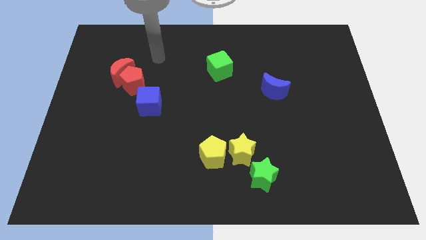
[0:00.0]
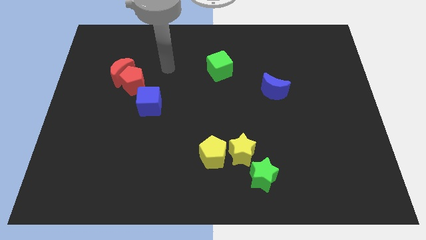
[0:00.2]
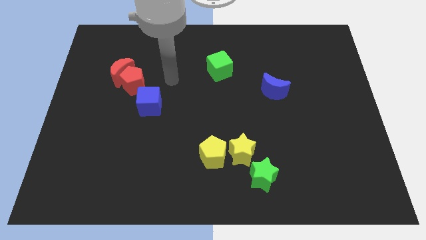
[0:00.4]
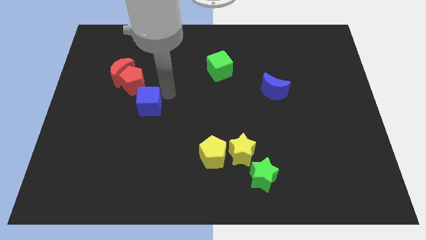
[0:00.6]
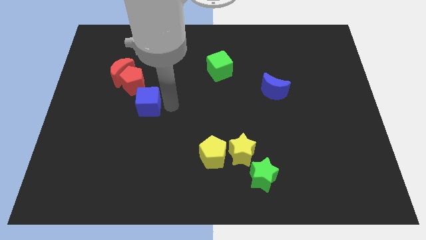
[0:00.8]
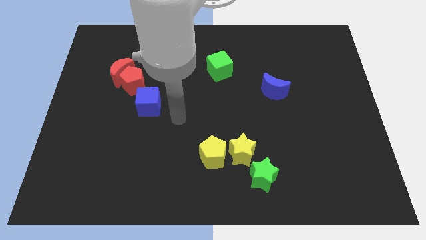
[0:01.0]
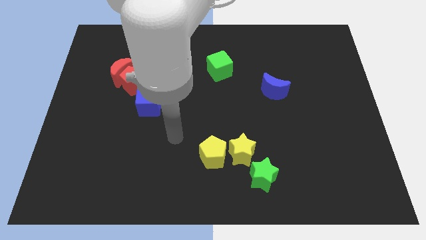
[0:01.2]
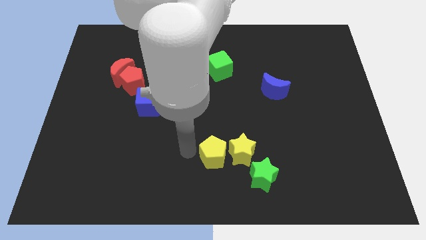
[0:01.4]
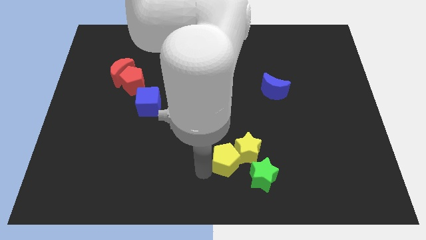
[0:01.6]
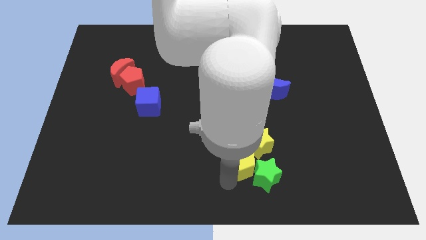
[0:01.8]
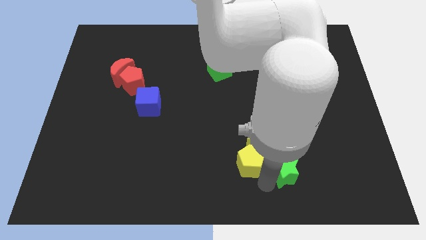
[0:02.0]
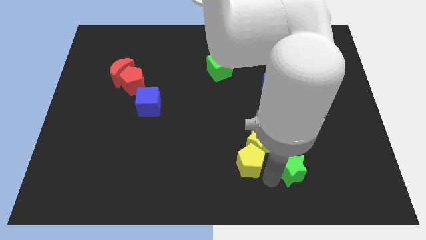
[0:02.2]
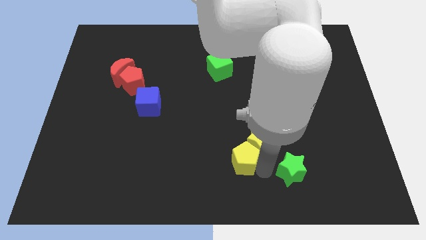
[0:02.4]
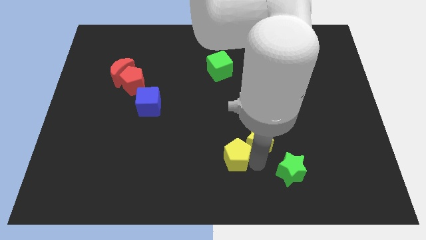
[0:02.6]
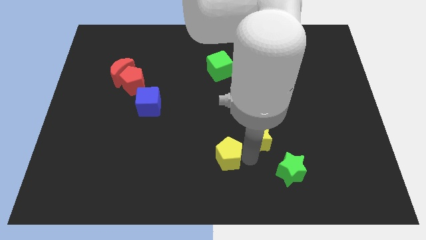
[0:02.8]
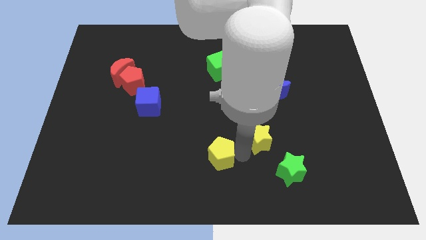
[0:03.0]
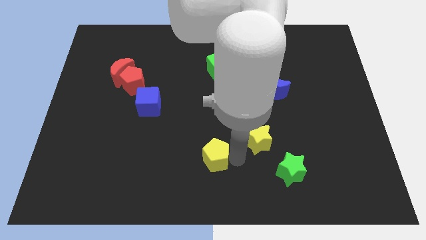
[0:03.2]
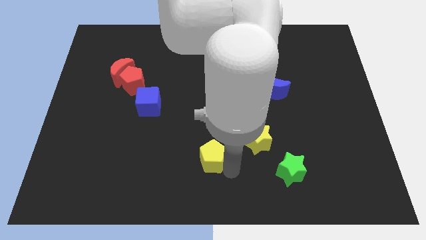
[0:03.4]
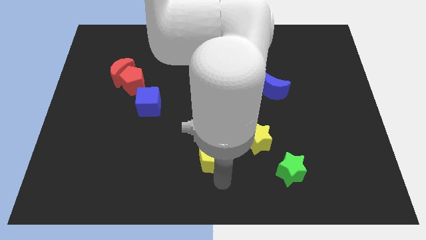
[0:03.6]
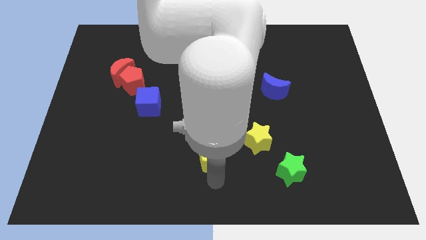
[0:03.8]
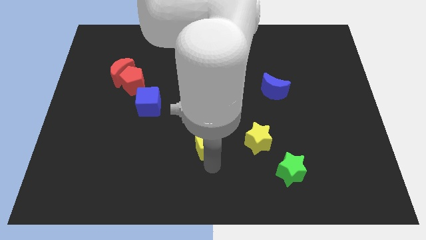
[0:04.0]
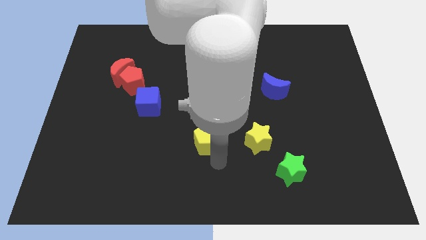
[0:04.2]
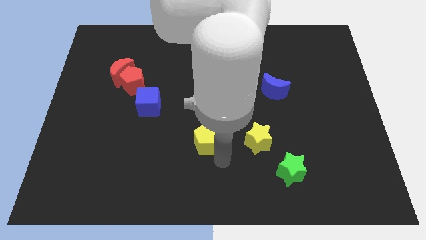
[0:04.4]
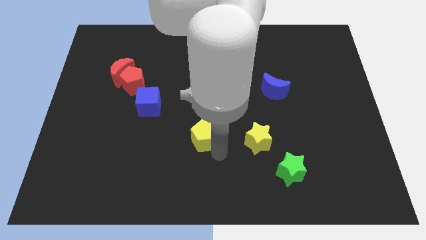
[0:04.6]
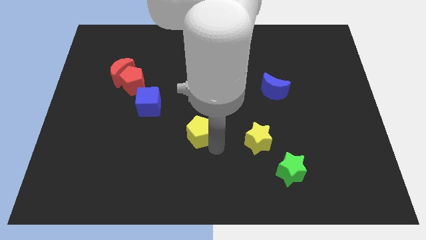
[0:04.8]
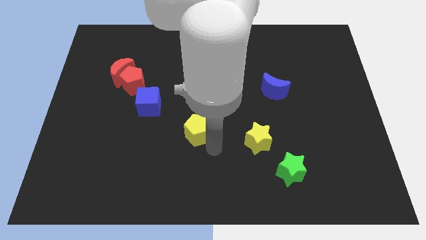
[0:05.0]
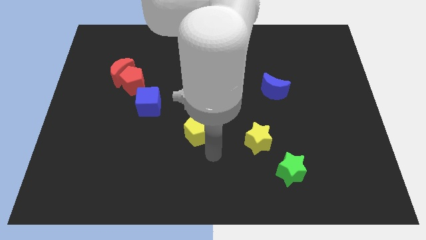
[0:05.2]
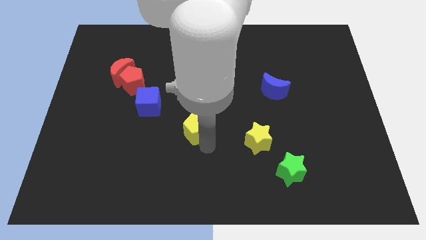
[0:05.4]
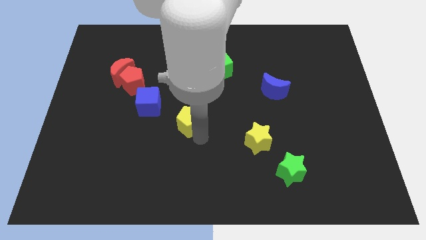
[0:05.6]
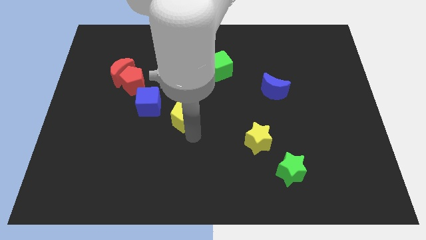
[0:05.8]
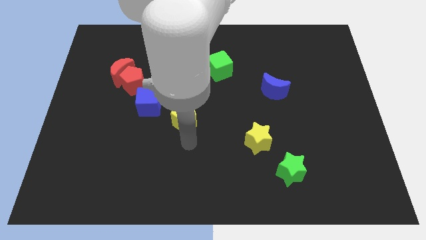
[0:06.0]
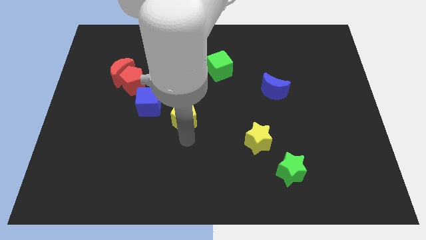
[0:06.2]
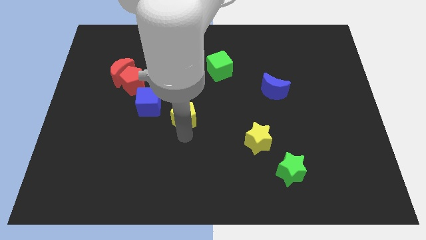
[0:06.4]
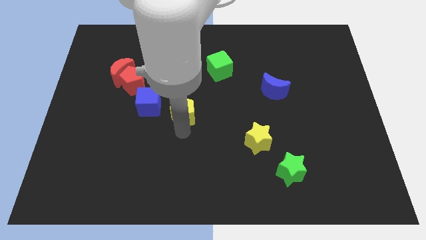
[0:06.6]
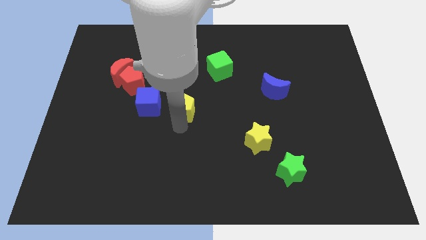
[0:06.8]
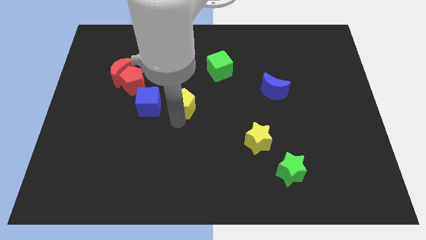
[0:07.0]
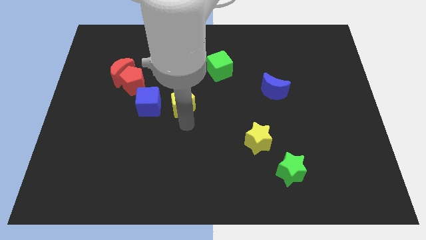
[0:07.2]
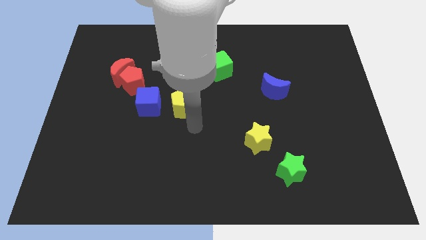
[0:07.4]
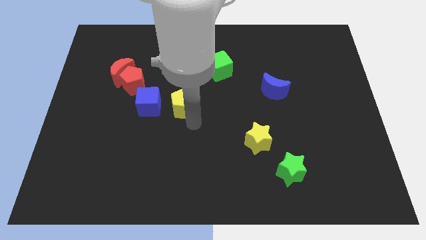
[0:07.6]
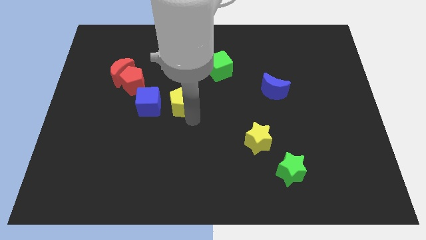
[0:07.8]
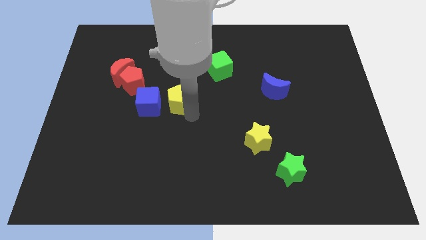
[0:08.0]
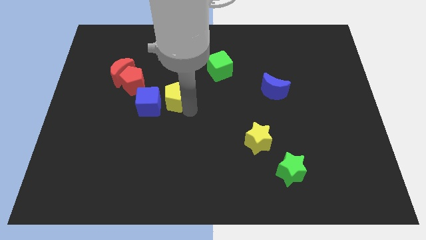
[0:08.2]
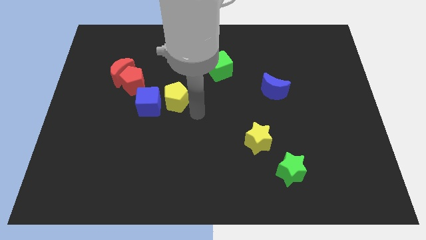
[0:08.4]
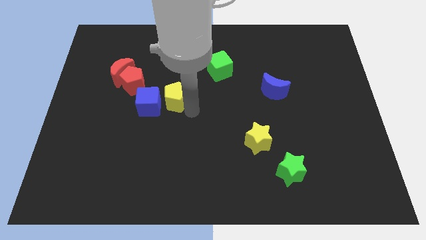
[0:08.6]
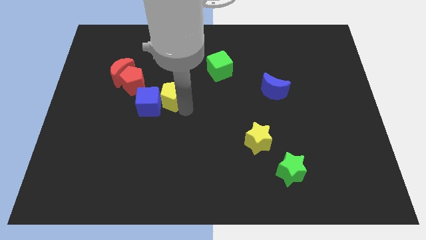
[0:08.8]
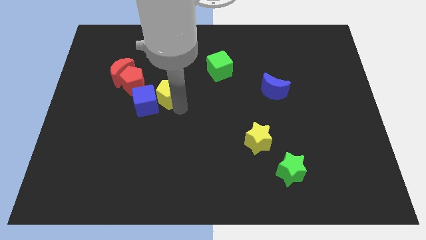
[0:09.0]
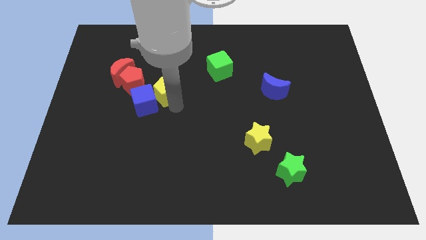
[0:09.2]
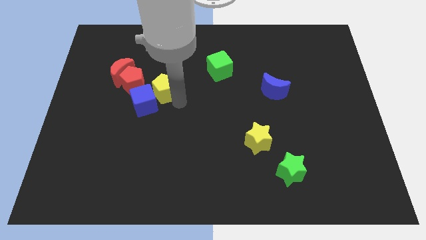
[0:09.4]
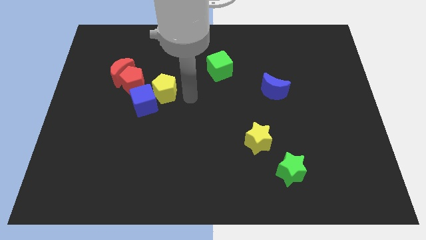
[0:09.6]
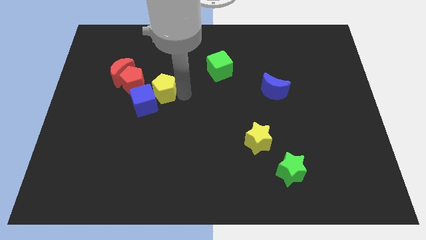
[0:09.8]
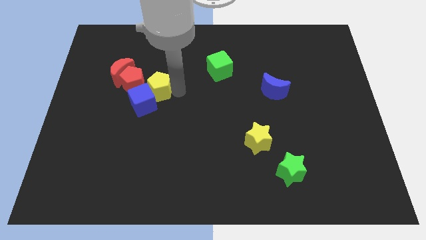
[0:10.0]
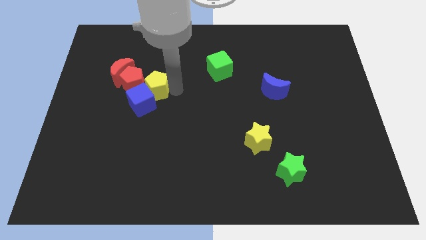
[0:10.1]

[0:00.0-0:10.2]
push the yellow pentagon next to the red pentagon

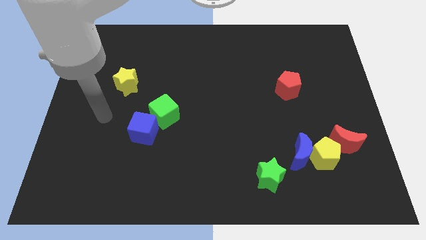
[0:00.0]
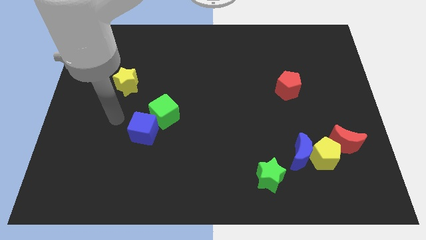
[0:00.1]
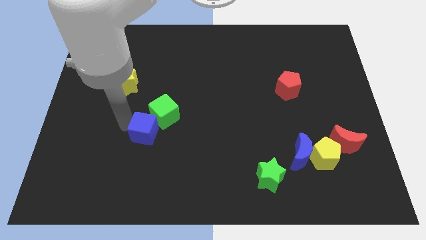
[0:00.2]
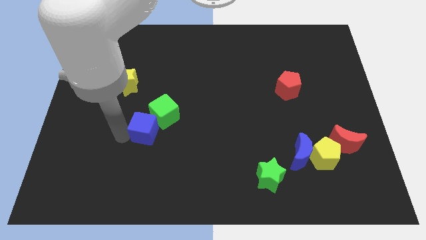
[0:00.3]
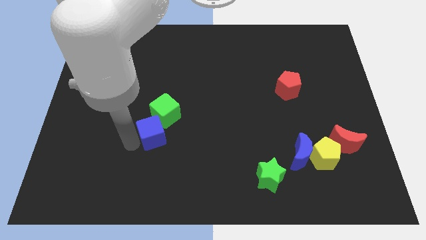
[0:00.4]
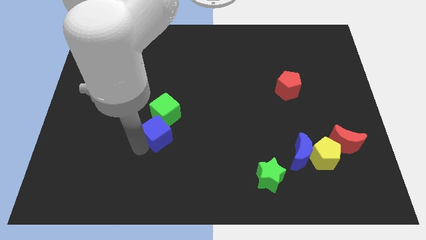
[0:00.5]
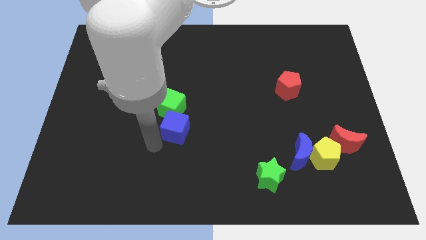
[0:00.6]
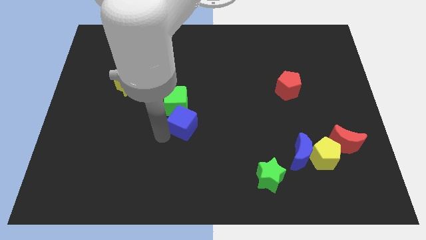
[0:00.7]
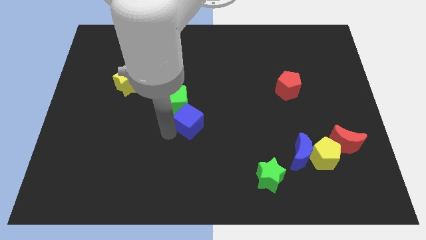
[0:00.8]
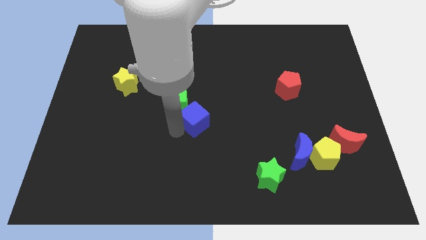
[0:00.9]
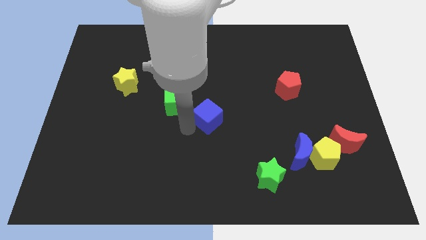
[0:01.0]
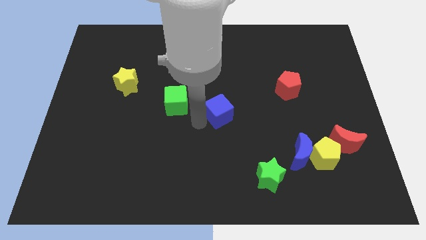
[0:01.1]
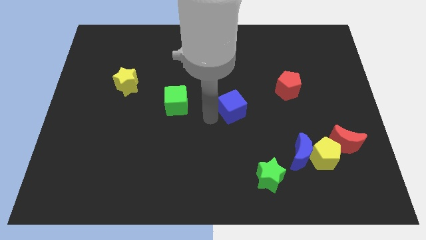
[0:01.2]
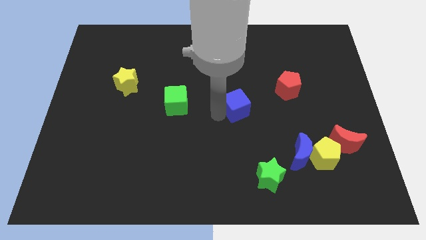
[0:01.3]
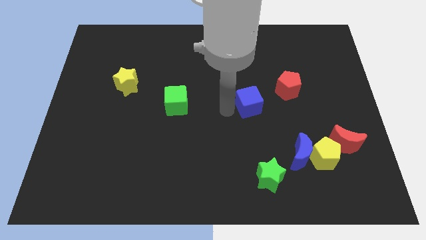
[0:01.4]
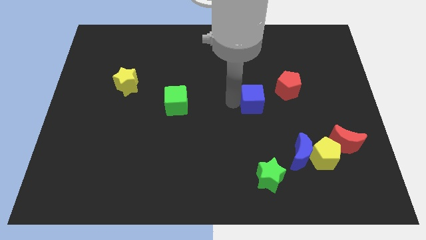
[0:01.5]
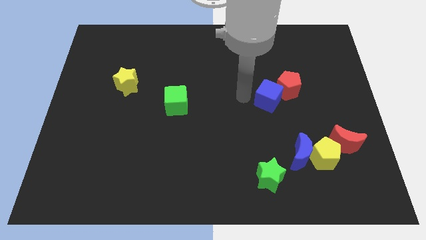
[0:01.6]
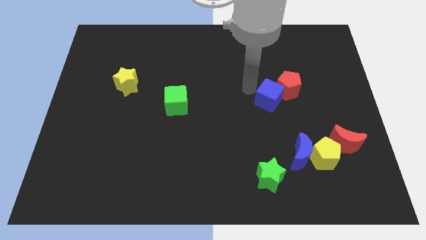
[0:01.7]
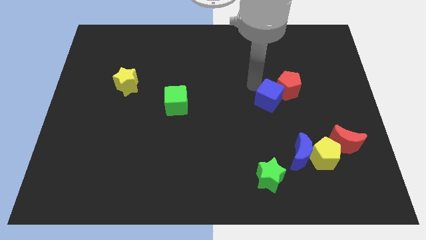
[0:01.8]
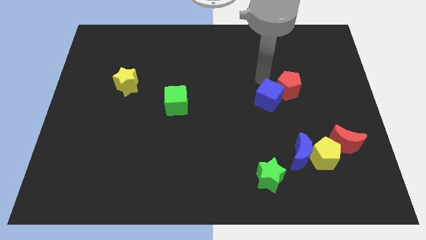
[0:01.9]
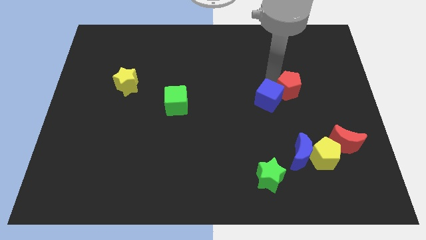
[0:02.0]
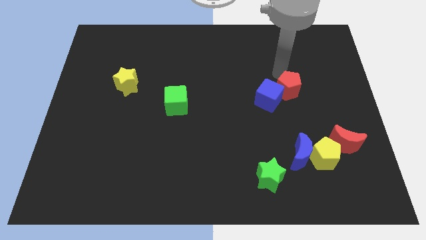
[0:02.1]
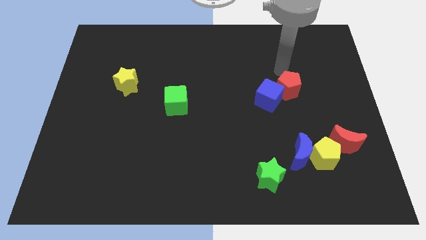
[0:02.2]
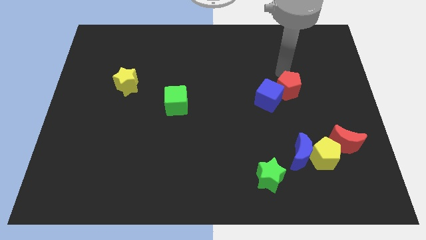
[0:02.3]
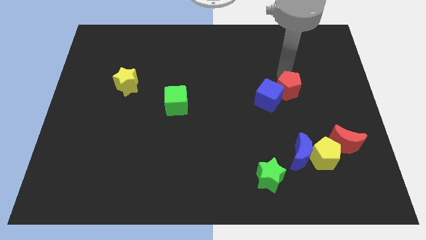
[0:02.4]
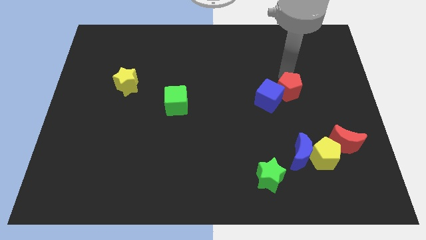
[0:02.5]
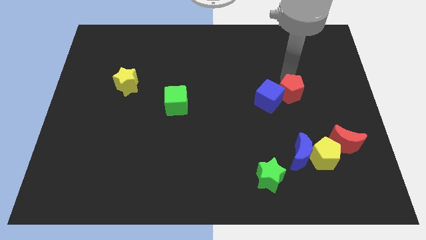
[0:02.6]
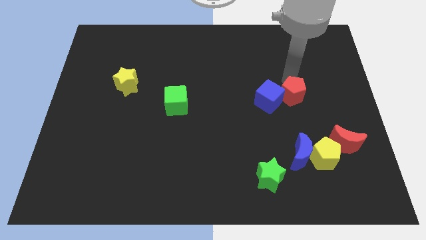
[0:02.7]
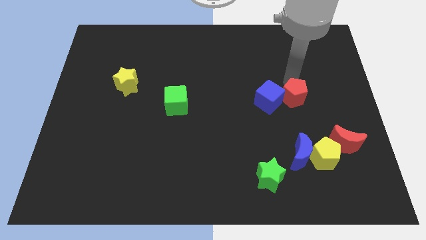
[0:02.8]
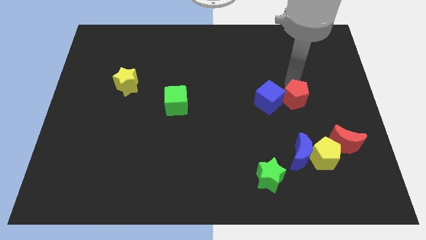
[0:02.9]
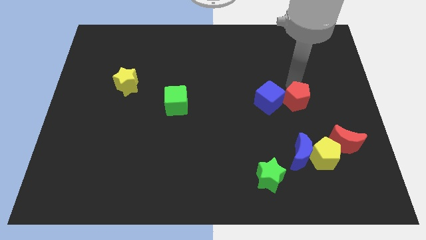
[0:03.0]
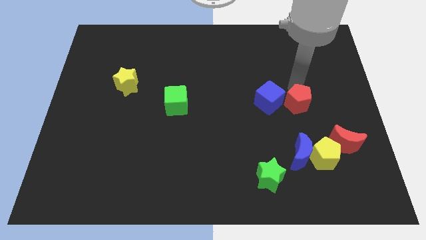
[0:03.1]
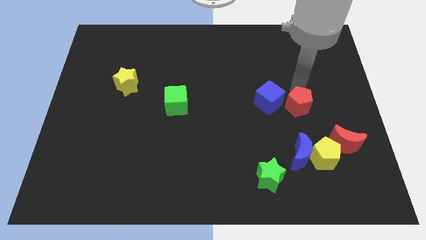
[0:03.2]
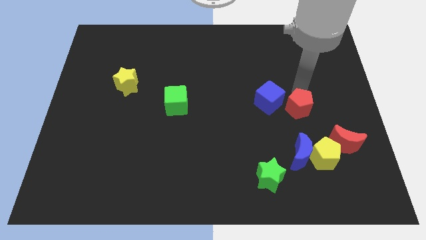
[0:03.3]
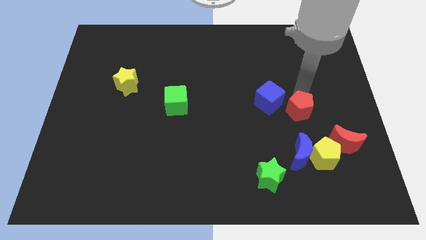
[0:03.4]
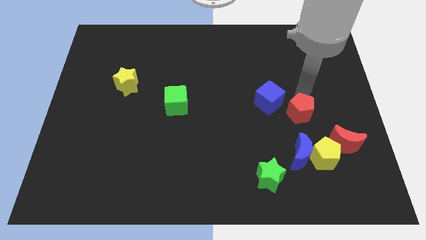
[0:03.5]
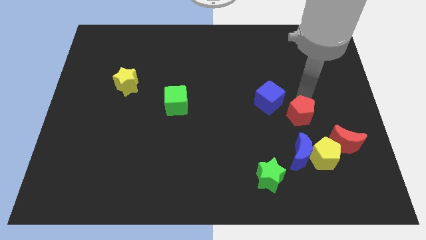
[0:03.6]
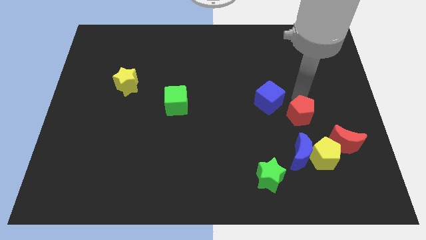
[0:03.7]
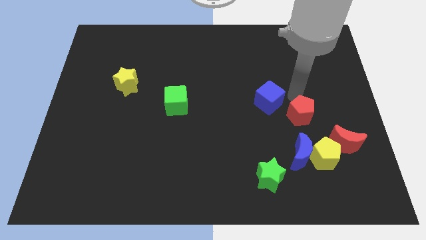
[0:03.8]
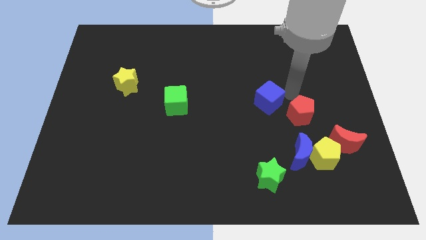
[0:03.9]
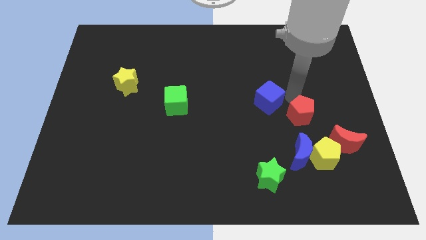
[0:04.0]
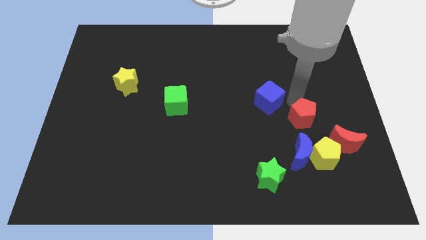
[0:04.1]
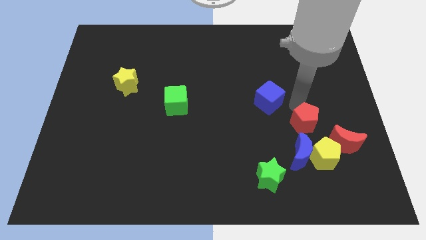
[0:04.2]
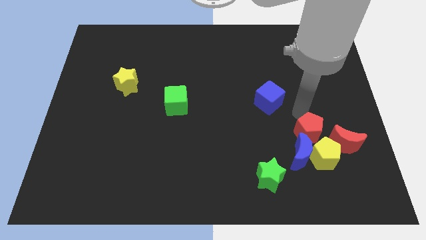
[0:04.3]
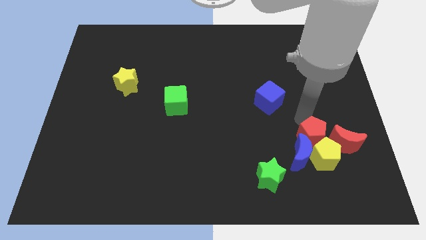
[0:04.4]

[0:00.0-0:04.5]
put the red pentagon to the yellow pentagon
